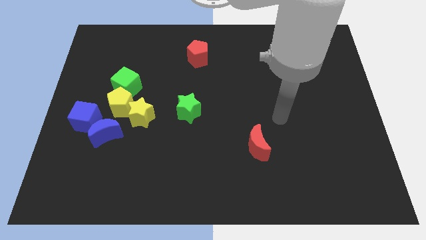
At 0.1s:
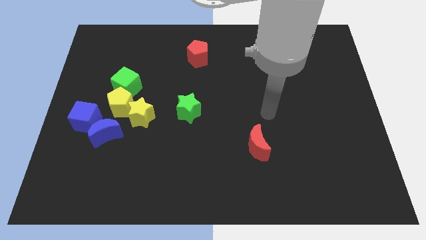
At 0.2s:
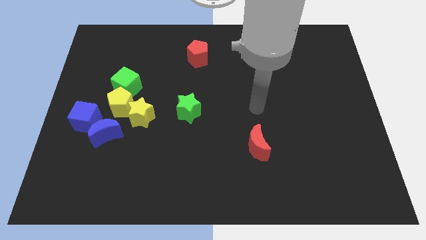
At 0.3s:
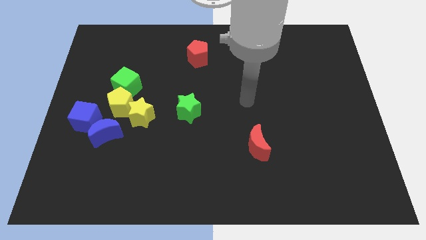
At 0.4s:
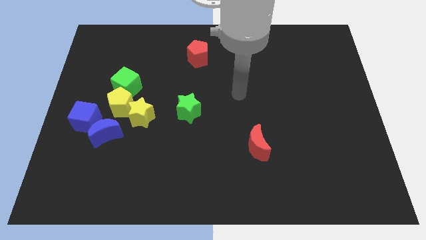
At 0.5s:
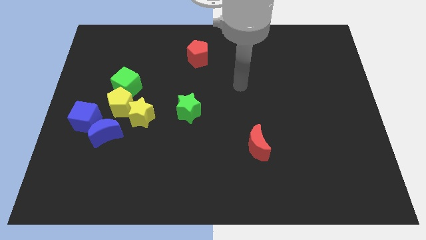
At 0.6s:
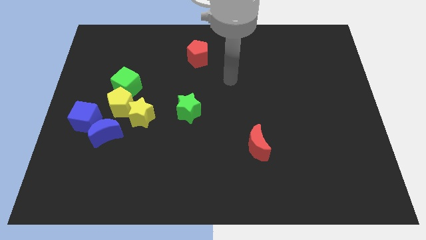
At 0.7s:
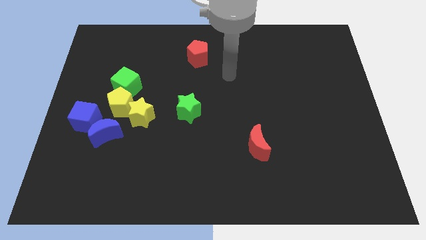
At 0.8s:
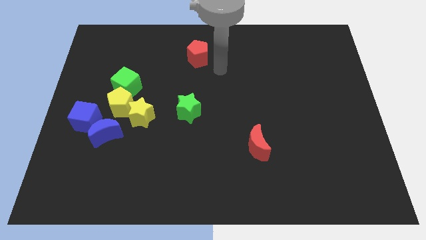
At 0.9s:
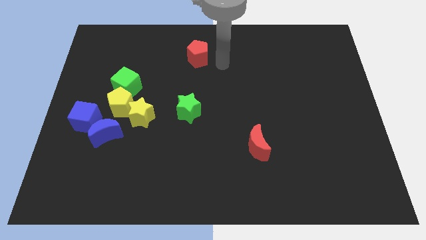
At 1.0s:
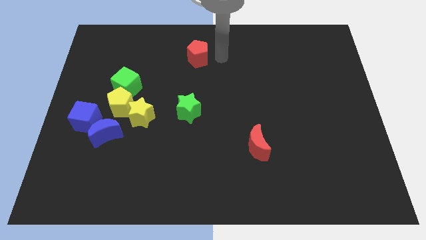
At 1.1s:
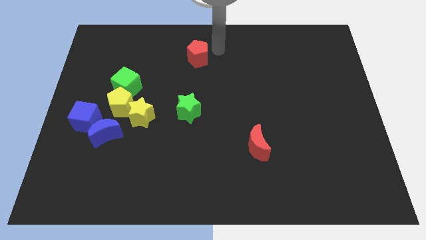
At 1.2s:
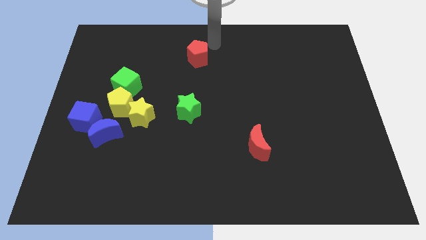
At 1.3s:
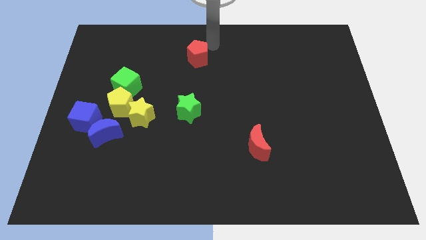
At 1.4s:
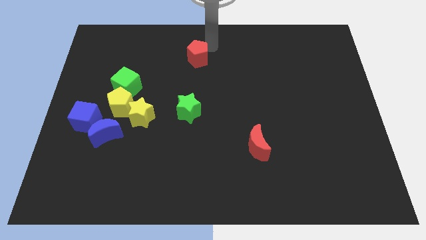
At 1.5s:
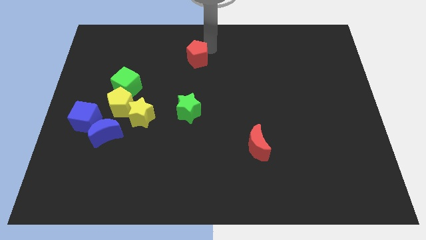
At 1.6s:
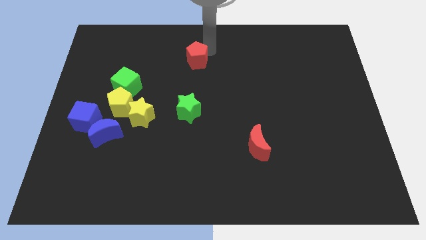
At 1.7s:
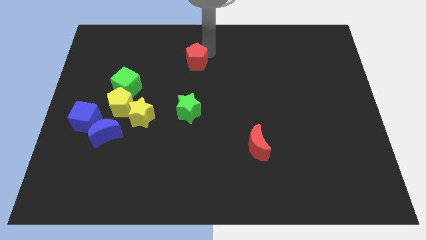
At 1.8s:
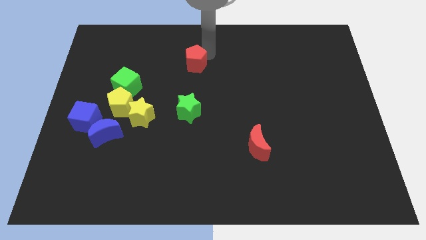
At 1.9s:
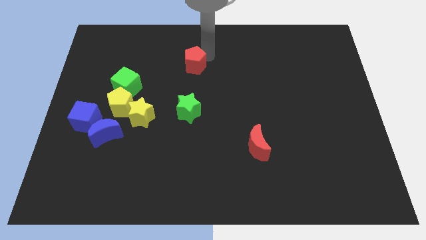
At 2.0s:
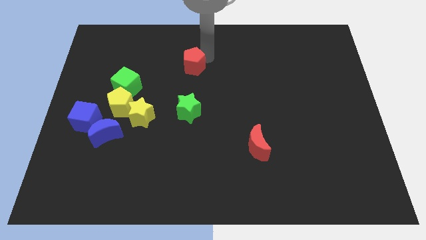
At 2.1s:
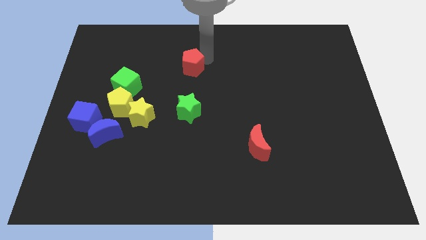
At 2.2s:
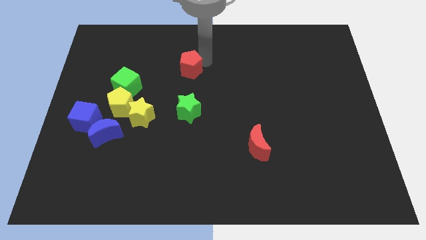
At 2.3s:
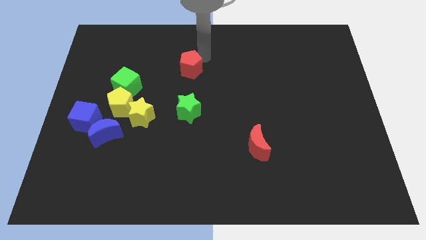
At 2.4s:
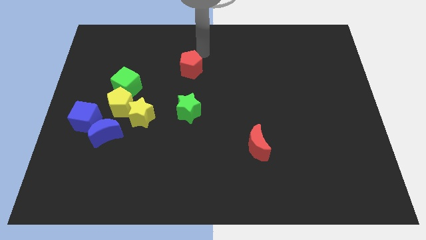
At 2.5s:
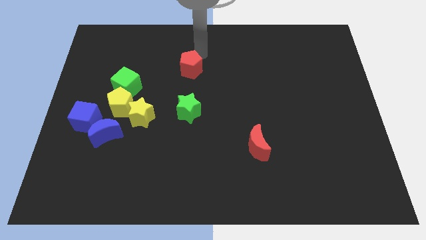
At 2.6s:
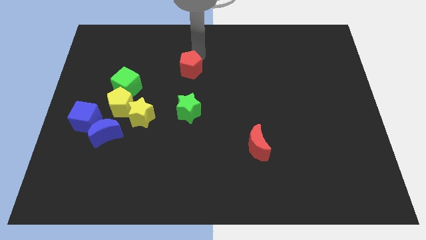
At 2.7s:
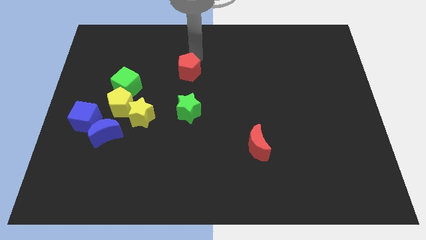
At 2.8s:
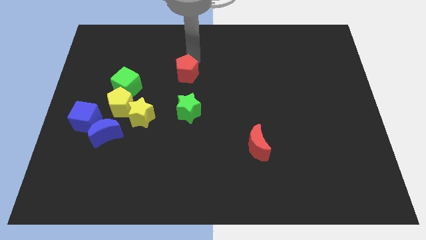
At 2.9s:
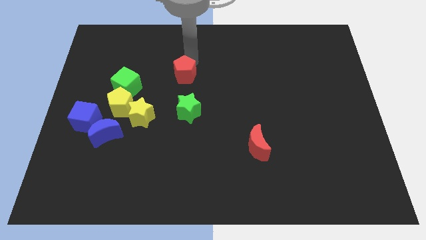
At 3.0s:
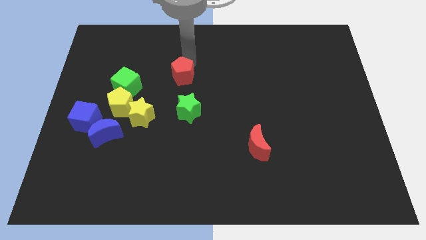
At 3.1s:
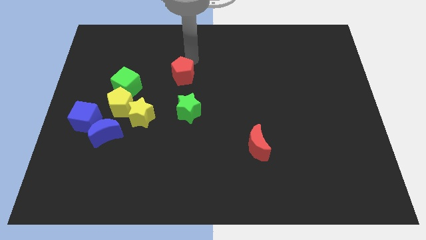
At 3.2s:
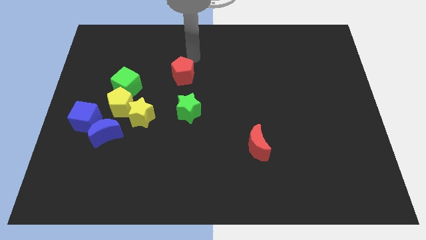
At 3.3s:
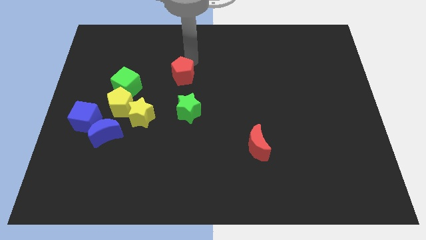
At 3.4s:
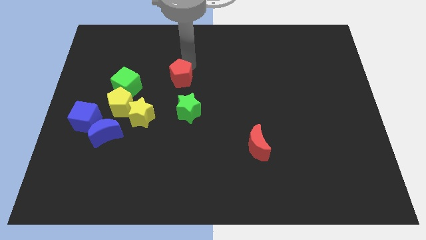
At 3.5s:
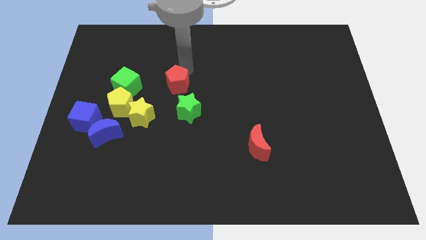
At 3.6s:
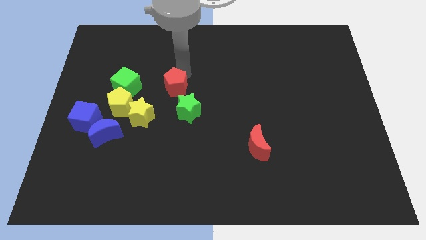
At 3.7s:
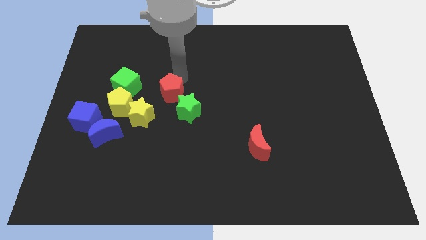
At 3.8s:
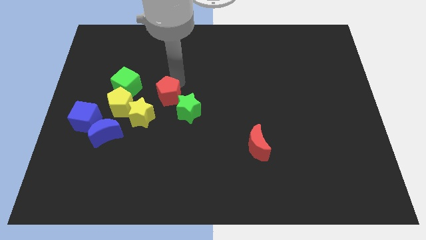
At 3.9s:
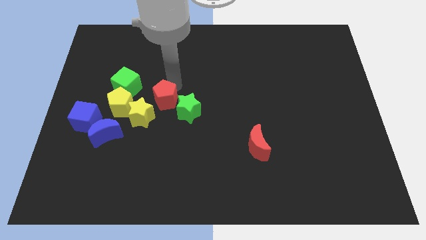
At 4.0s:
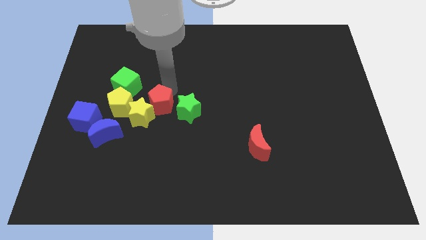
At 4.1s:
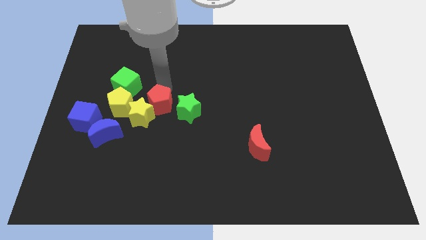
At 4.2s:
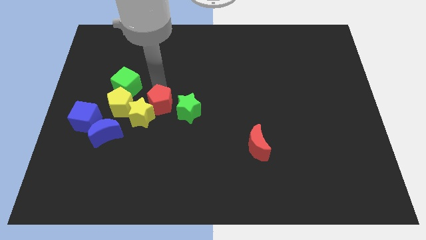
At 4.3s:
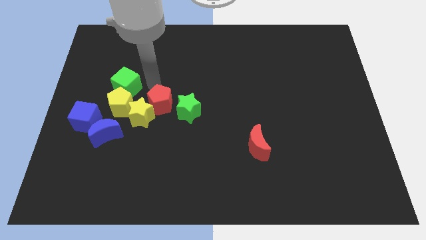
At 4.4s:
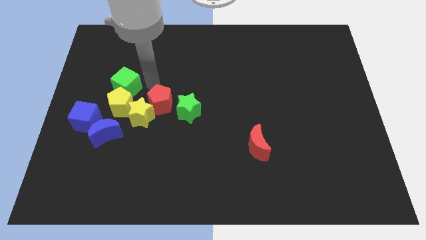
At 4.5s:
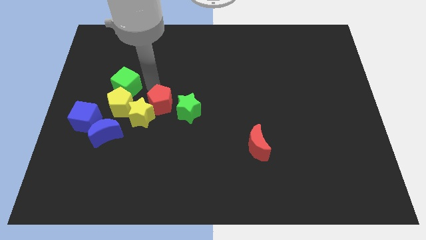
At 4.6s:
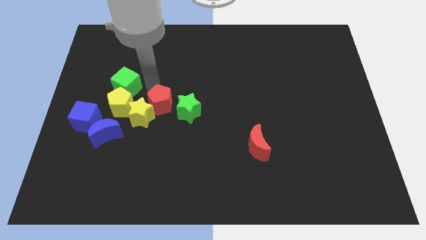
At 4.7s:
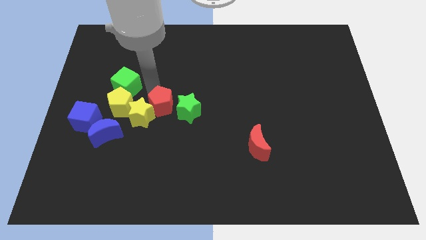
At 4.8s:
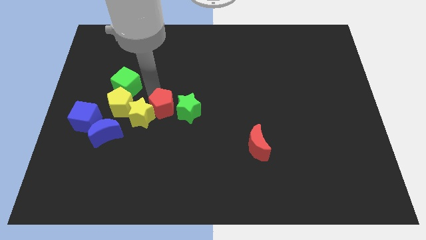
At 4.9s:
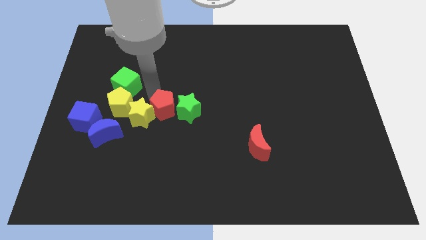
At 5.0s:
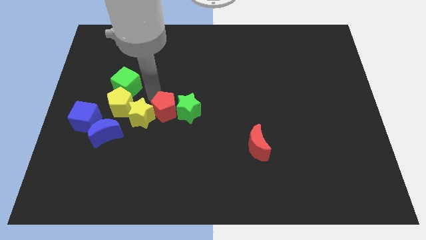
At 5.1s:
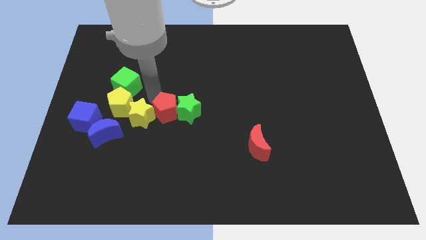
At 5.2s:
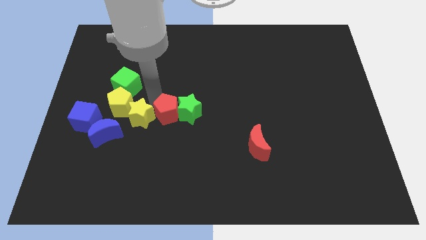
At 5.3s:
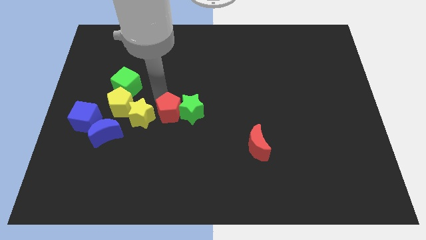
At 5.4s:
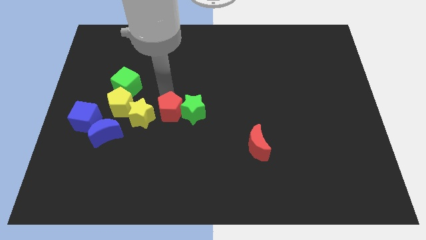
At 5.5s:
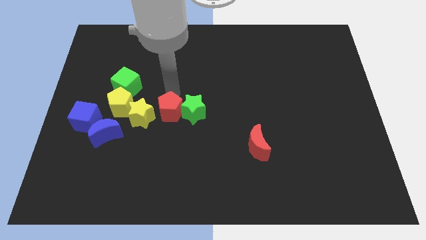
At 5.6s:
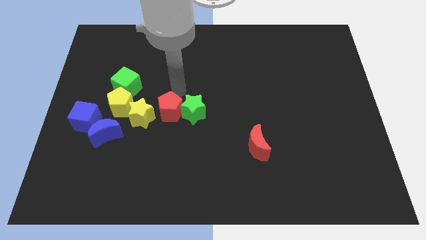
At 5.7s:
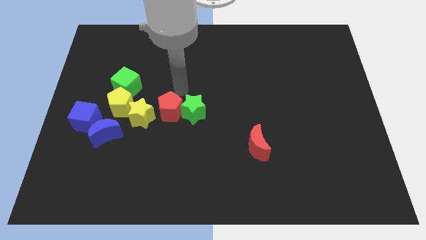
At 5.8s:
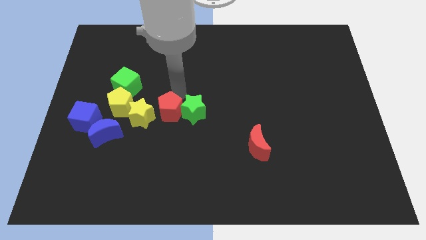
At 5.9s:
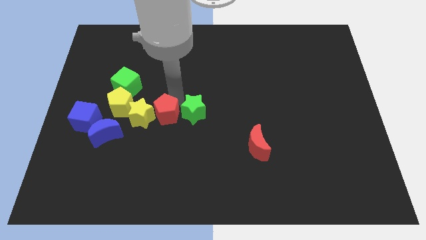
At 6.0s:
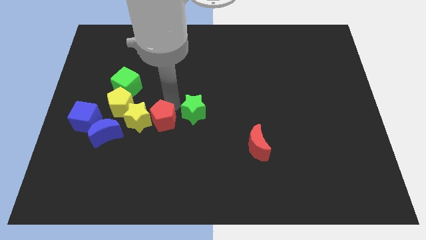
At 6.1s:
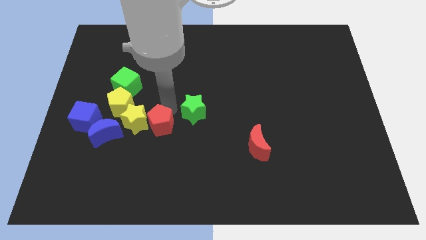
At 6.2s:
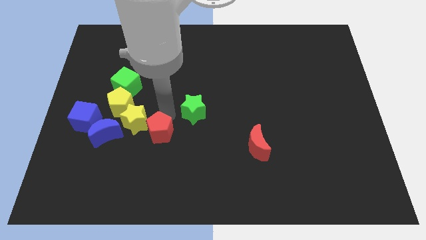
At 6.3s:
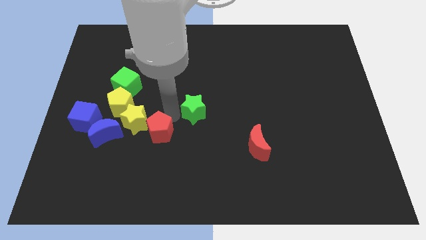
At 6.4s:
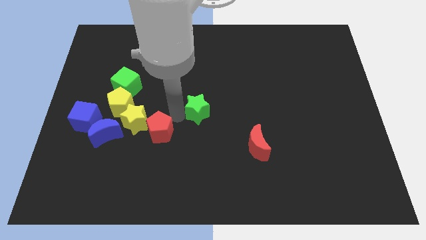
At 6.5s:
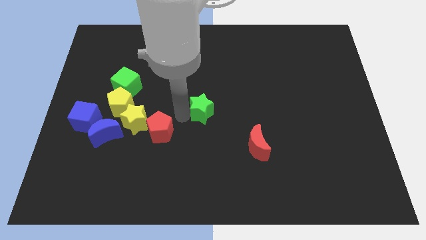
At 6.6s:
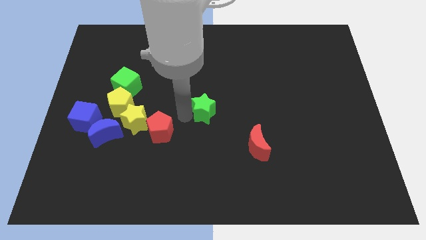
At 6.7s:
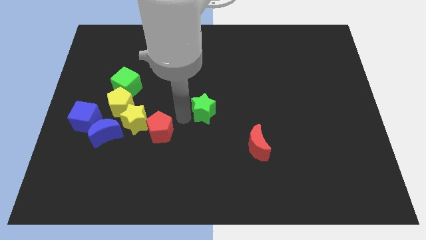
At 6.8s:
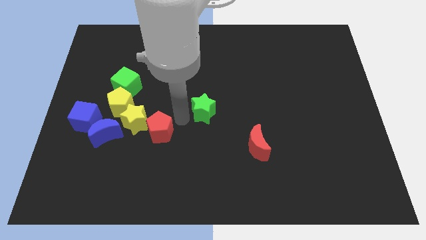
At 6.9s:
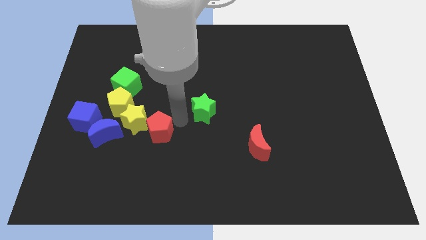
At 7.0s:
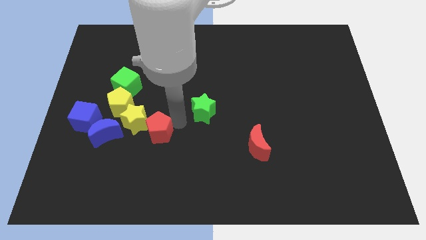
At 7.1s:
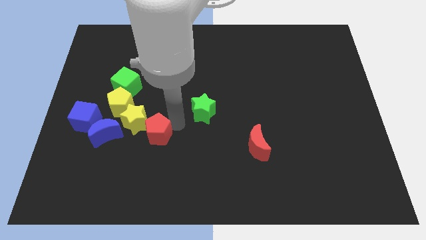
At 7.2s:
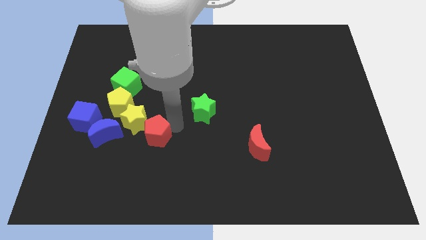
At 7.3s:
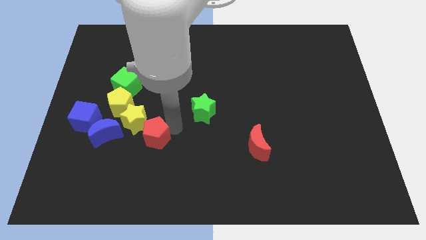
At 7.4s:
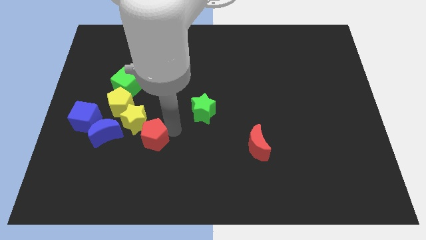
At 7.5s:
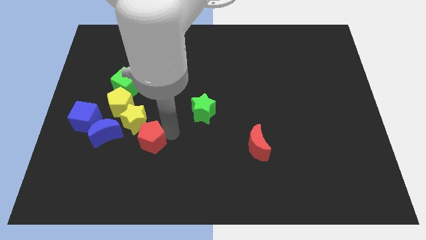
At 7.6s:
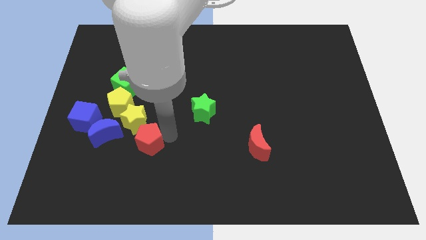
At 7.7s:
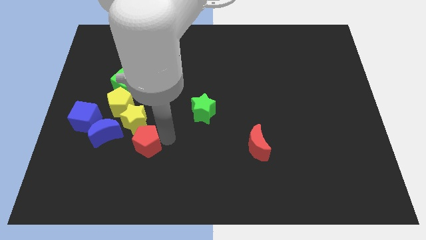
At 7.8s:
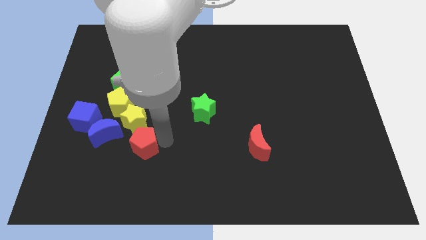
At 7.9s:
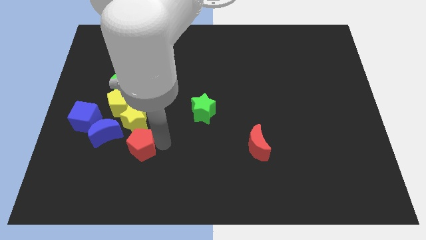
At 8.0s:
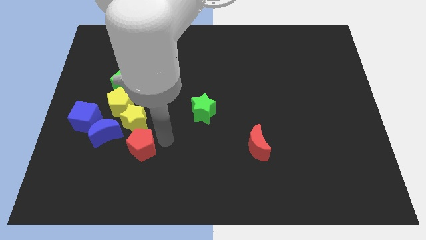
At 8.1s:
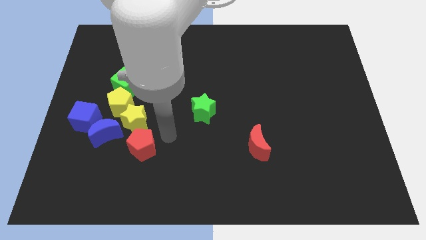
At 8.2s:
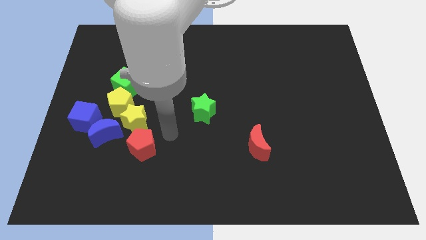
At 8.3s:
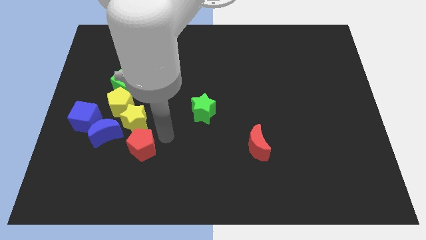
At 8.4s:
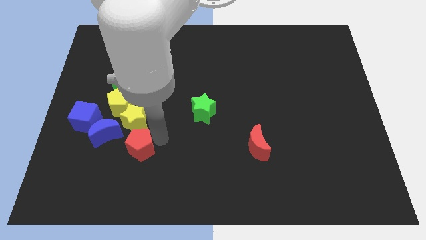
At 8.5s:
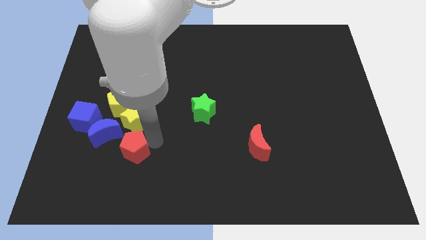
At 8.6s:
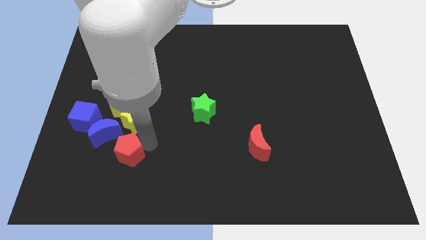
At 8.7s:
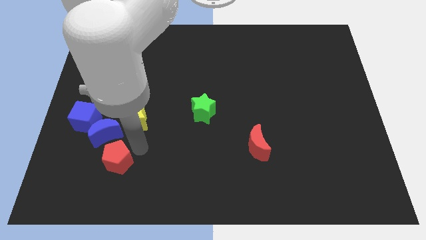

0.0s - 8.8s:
push the red pentagon to the bottom side of the blue moon
